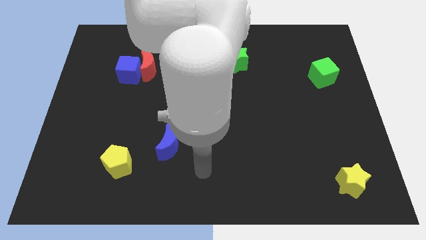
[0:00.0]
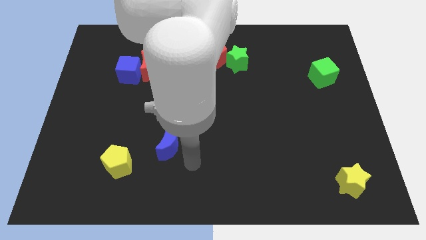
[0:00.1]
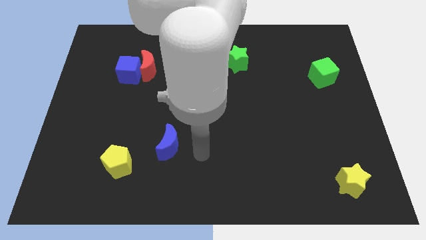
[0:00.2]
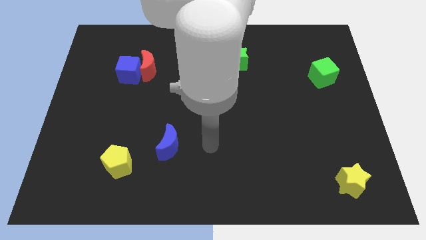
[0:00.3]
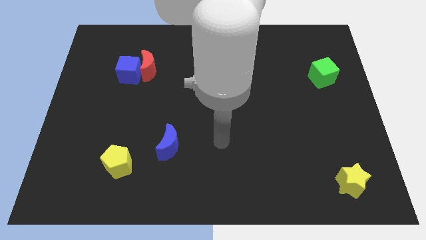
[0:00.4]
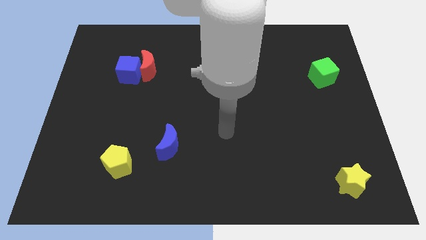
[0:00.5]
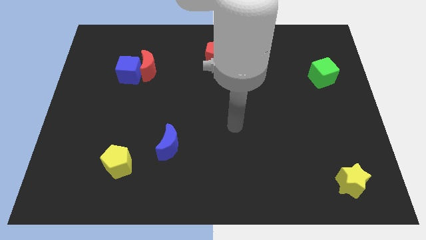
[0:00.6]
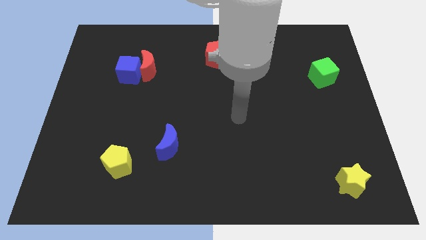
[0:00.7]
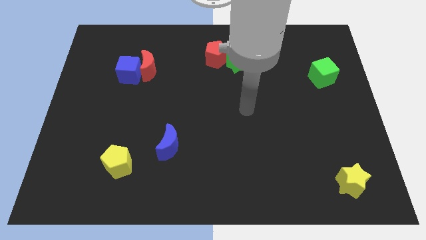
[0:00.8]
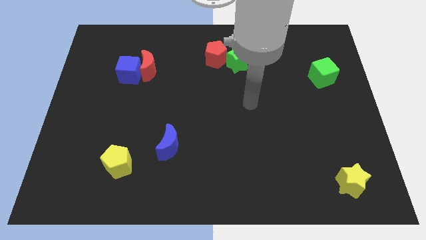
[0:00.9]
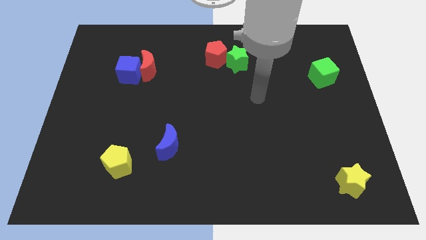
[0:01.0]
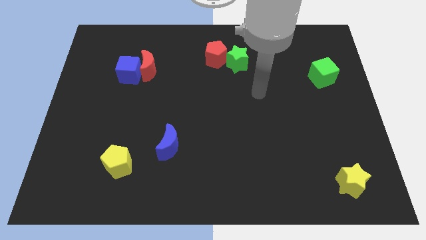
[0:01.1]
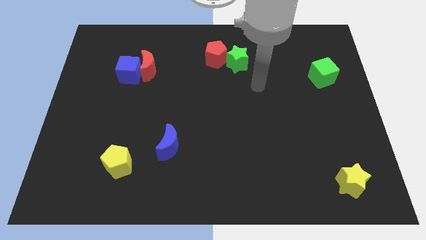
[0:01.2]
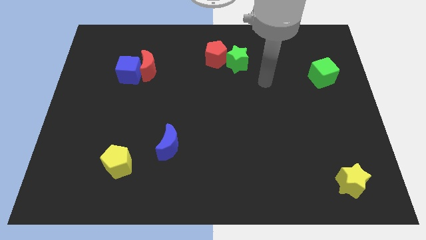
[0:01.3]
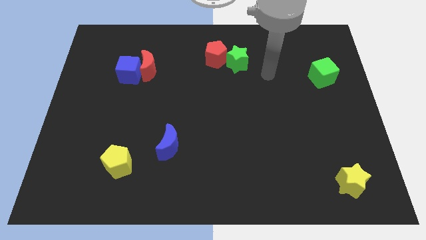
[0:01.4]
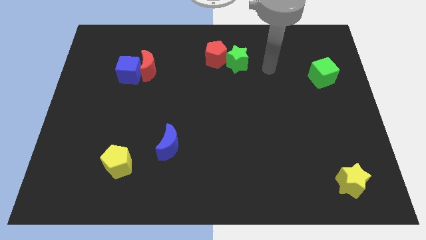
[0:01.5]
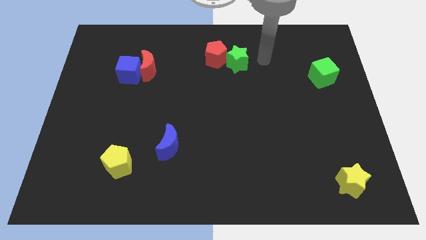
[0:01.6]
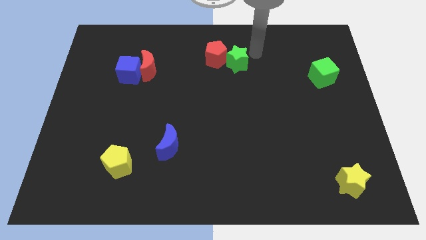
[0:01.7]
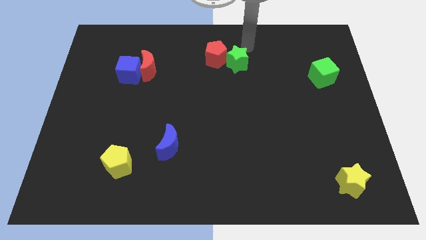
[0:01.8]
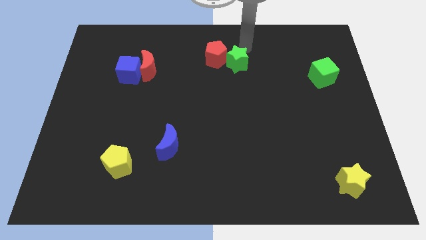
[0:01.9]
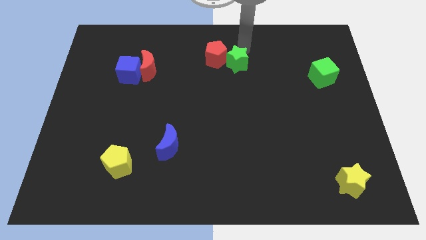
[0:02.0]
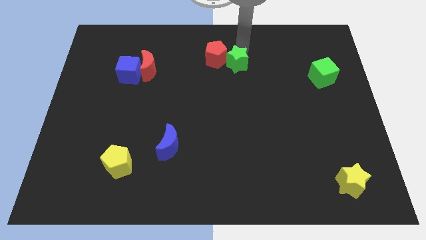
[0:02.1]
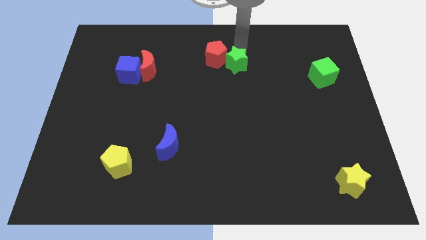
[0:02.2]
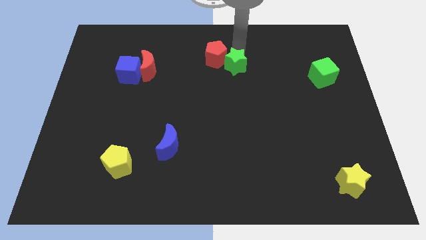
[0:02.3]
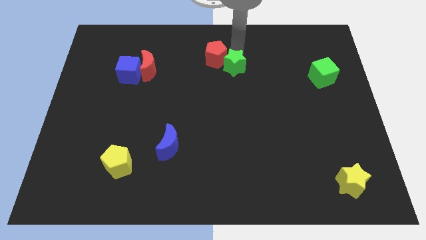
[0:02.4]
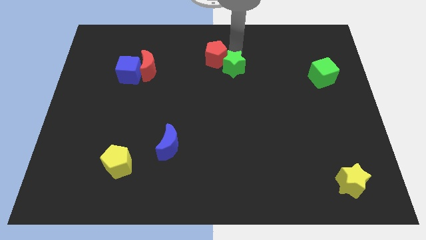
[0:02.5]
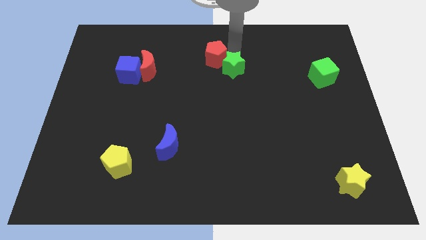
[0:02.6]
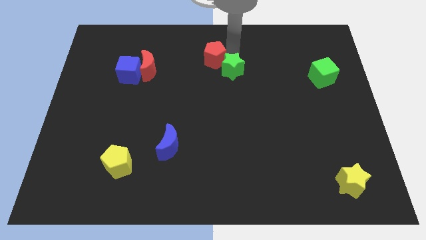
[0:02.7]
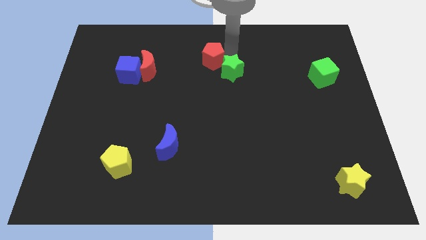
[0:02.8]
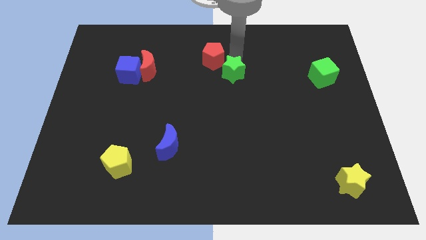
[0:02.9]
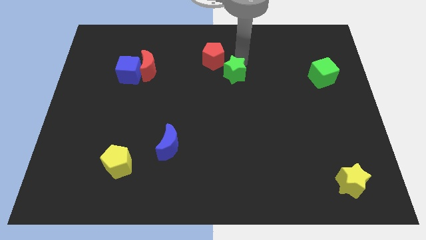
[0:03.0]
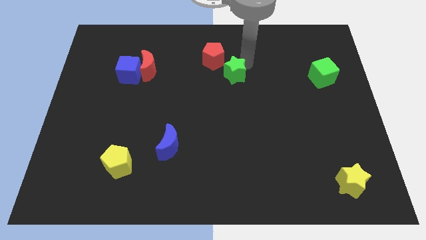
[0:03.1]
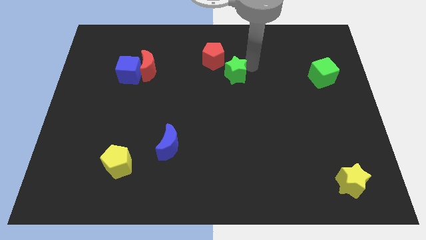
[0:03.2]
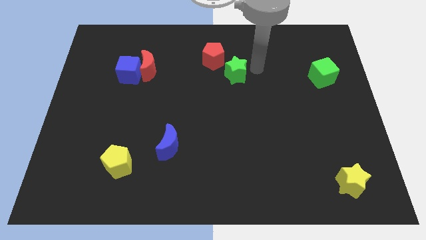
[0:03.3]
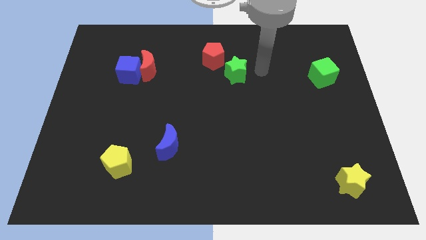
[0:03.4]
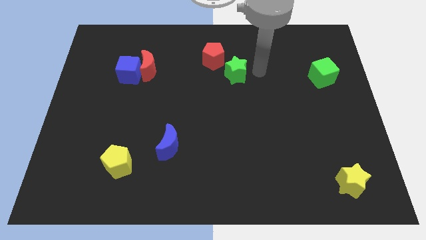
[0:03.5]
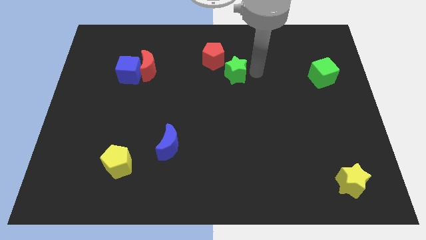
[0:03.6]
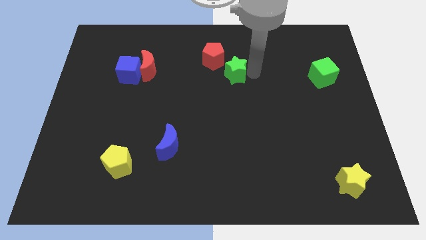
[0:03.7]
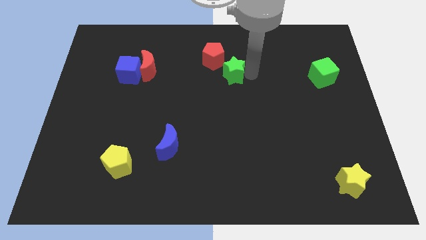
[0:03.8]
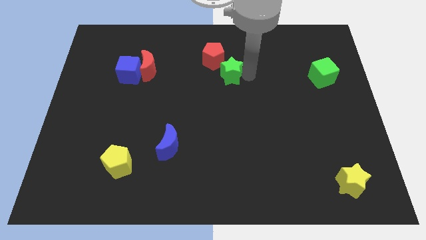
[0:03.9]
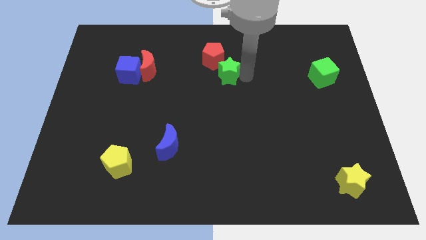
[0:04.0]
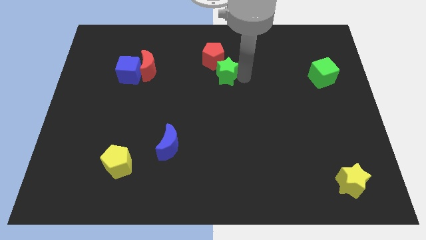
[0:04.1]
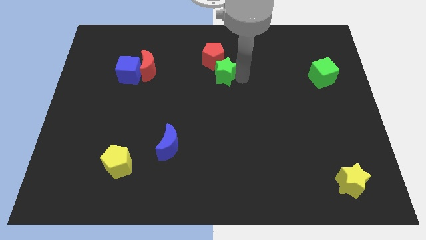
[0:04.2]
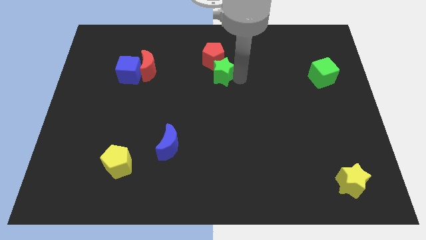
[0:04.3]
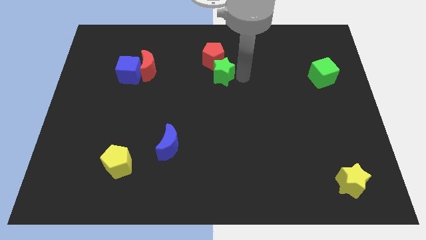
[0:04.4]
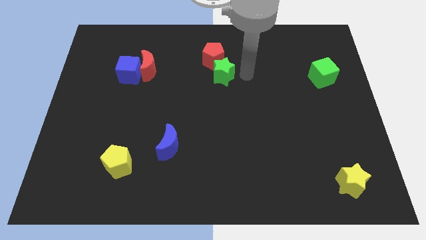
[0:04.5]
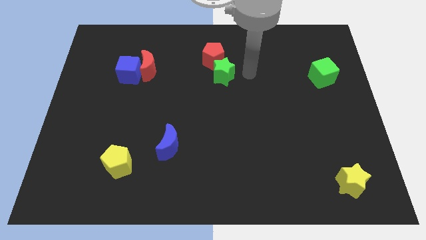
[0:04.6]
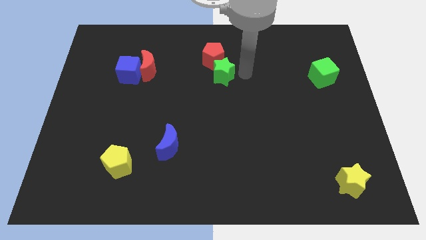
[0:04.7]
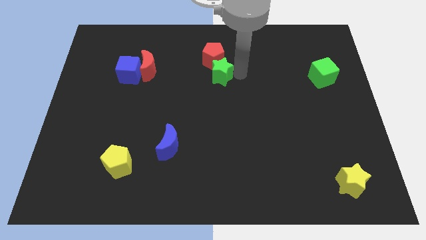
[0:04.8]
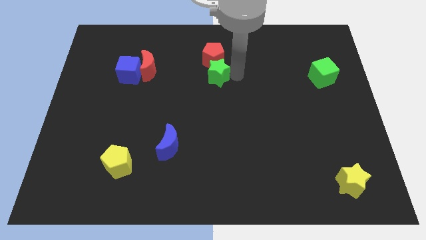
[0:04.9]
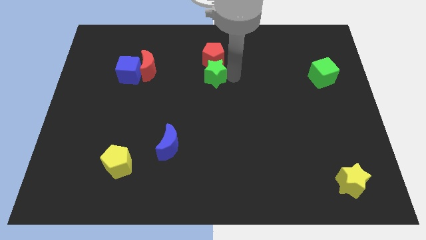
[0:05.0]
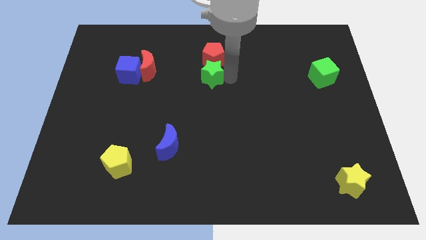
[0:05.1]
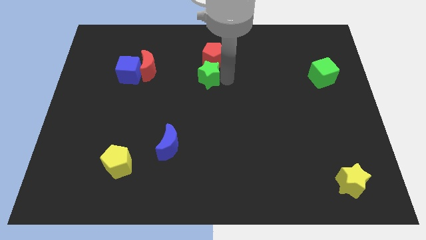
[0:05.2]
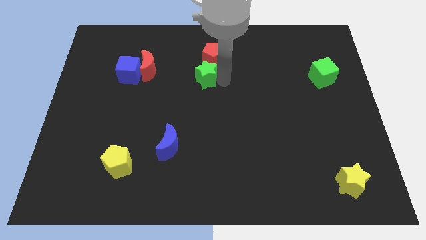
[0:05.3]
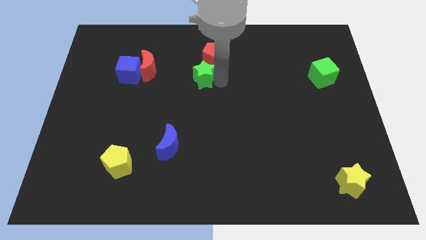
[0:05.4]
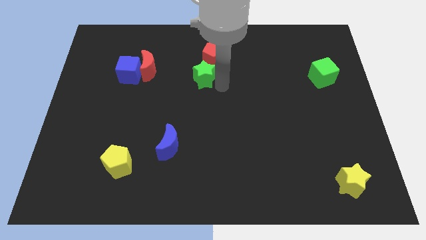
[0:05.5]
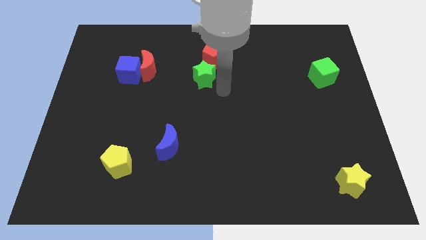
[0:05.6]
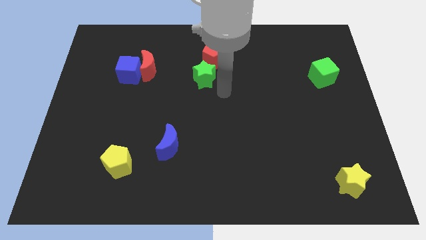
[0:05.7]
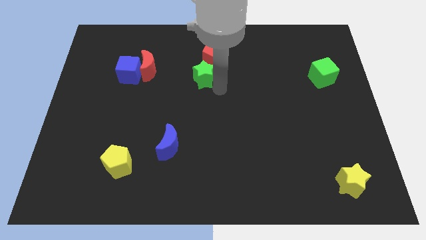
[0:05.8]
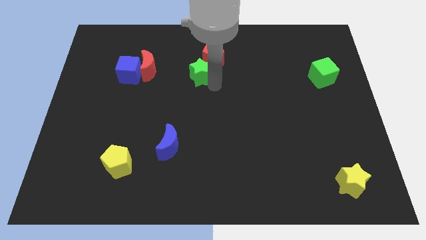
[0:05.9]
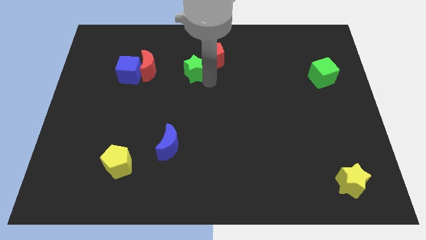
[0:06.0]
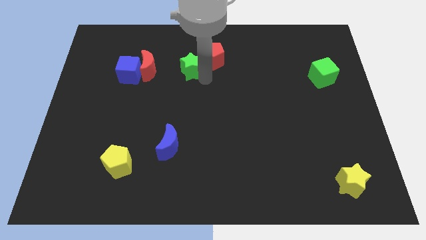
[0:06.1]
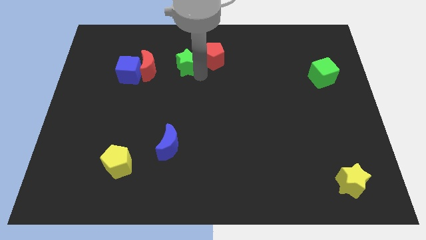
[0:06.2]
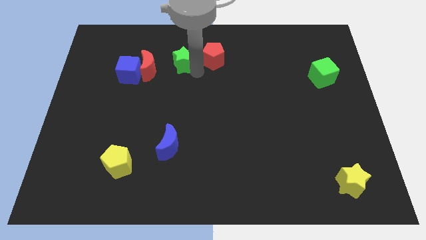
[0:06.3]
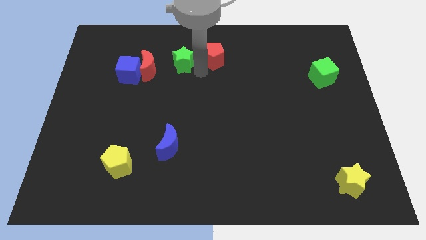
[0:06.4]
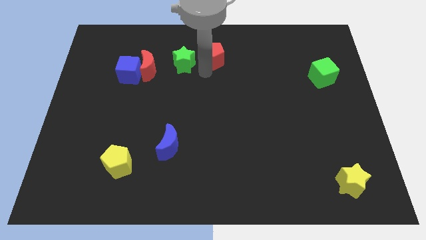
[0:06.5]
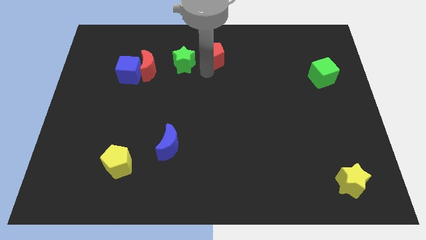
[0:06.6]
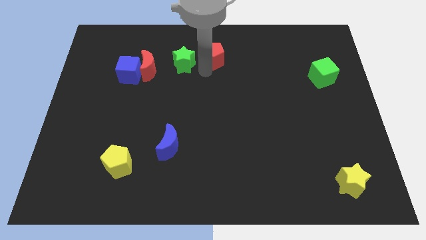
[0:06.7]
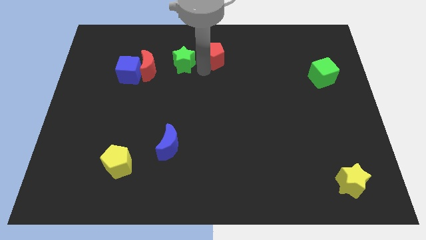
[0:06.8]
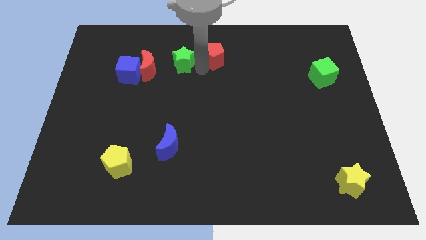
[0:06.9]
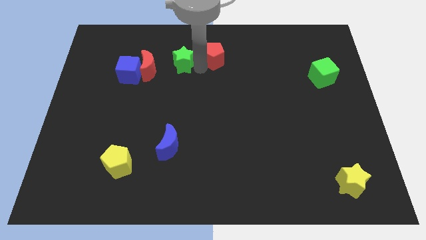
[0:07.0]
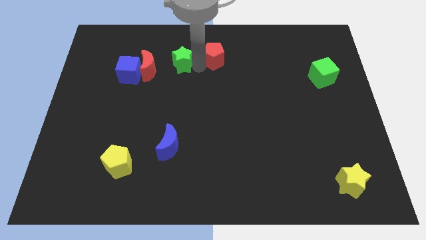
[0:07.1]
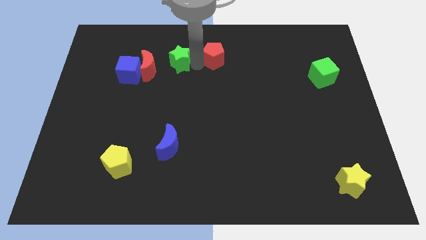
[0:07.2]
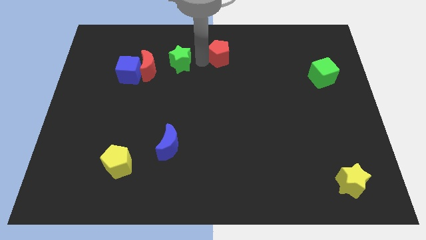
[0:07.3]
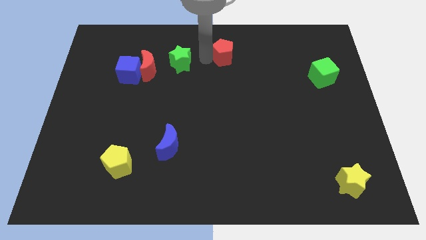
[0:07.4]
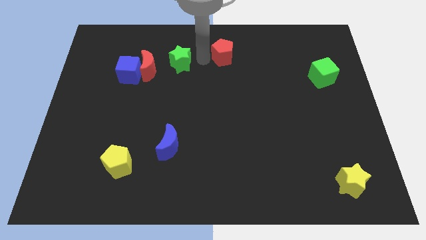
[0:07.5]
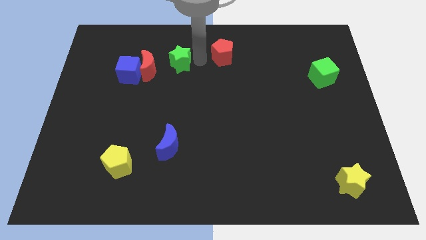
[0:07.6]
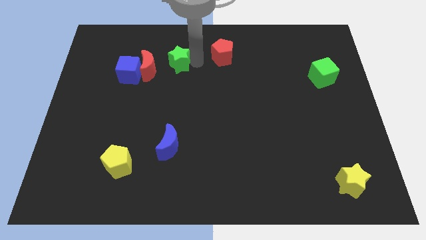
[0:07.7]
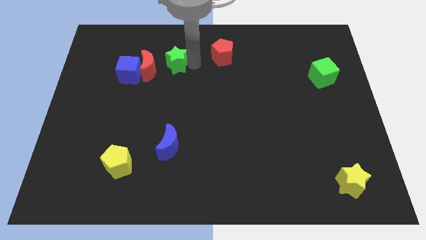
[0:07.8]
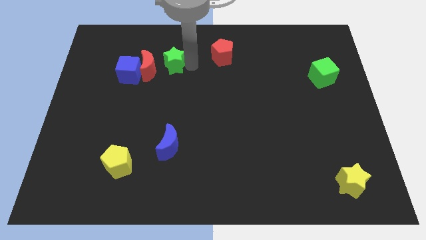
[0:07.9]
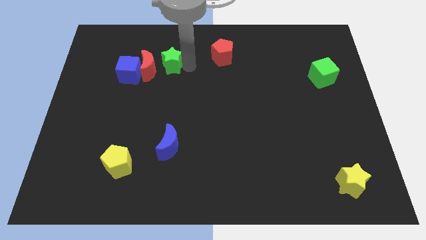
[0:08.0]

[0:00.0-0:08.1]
push the green star next to the red moon
